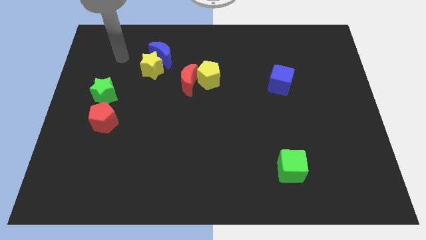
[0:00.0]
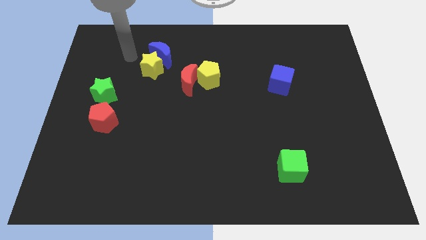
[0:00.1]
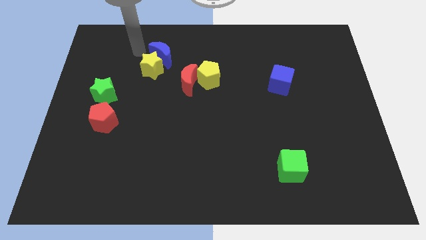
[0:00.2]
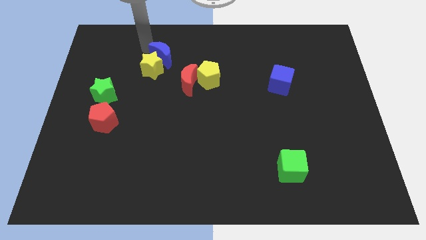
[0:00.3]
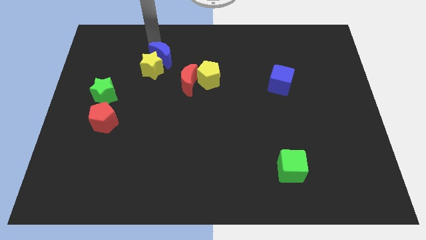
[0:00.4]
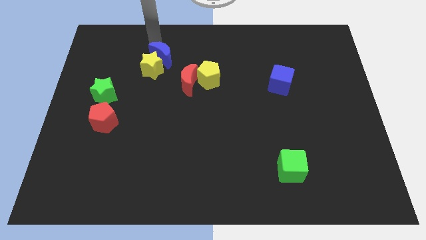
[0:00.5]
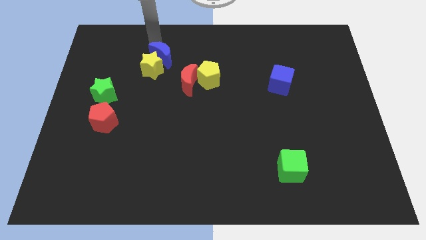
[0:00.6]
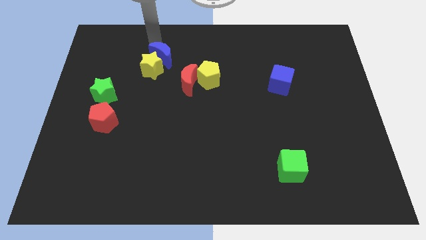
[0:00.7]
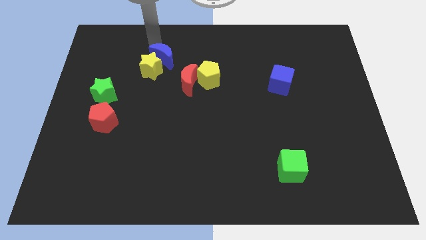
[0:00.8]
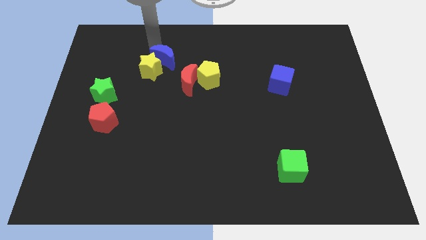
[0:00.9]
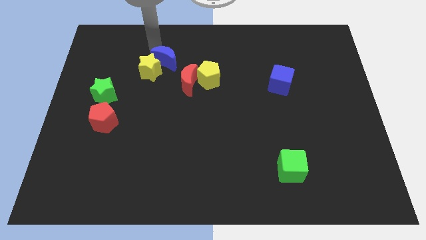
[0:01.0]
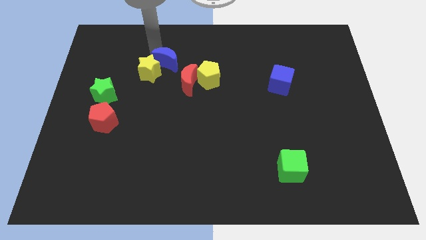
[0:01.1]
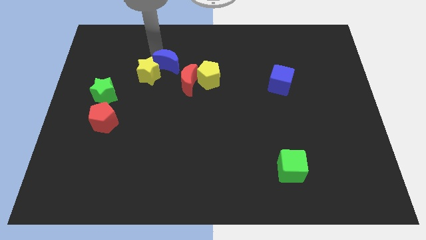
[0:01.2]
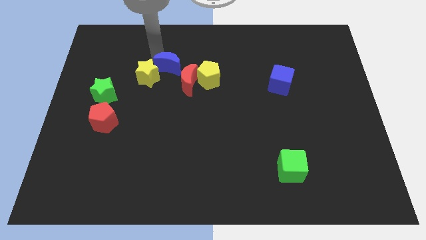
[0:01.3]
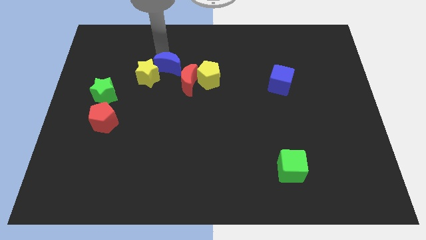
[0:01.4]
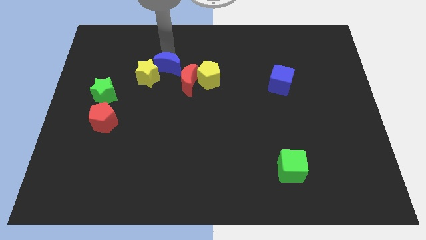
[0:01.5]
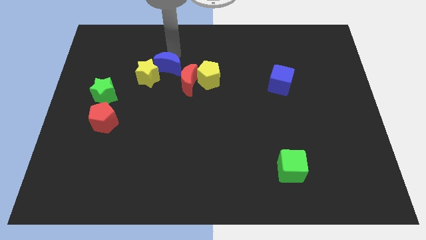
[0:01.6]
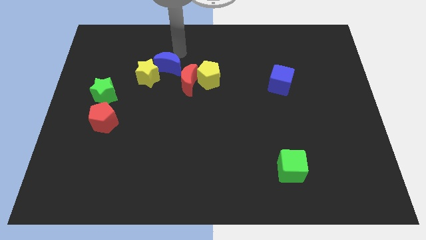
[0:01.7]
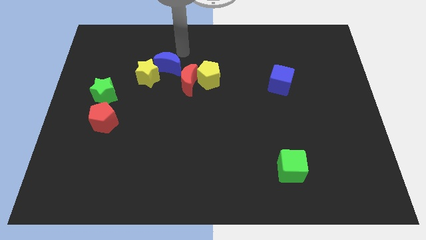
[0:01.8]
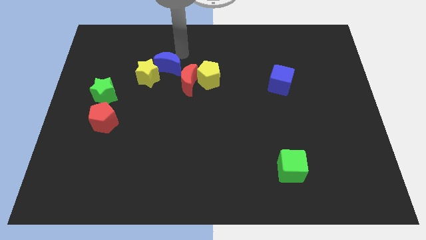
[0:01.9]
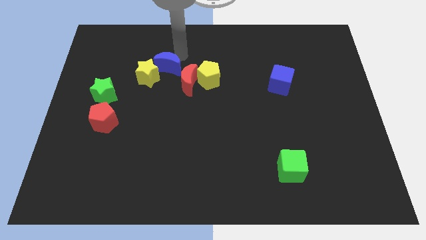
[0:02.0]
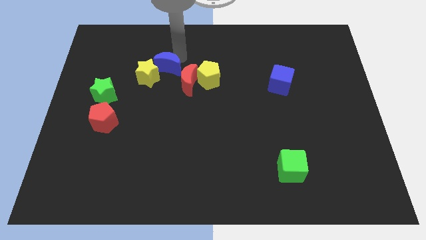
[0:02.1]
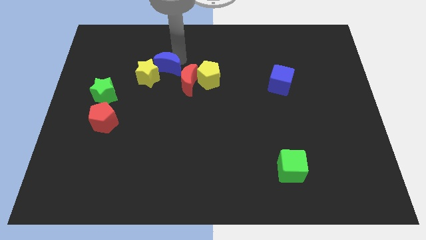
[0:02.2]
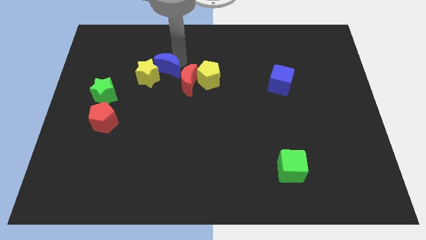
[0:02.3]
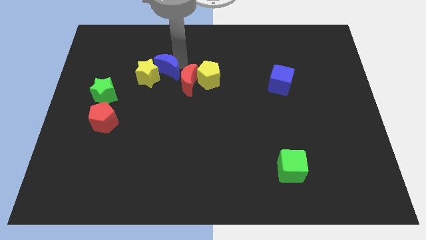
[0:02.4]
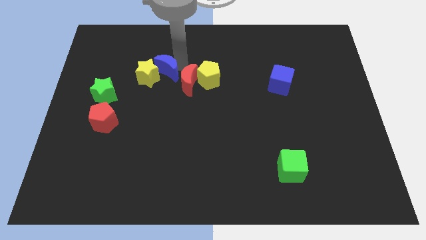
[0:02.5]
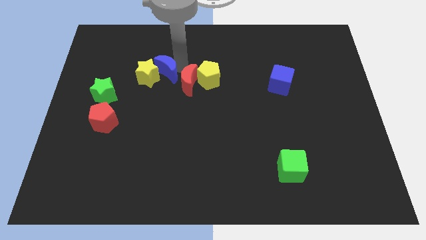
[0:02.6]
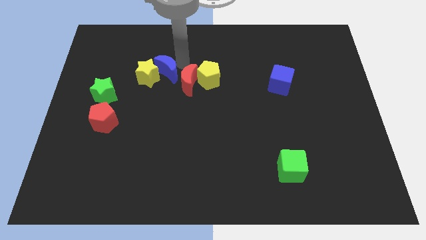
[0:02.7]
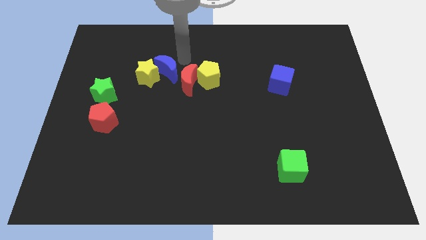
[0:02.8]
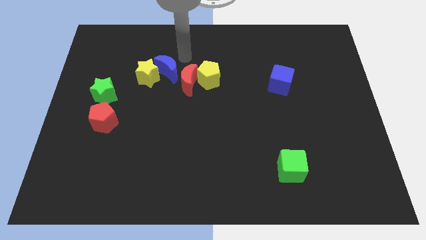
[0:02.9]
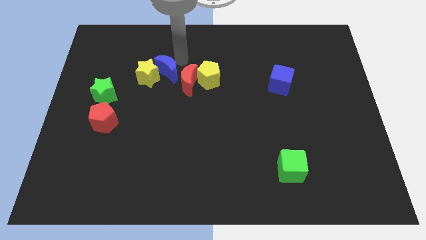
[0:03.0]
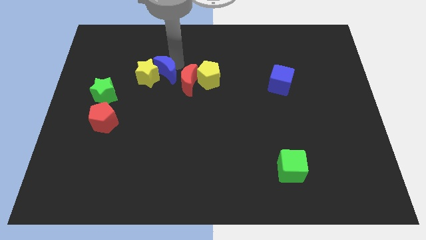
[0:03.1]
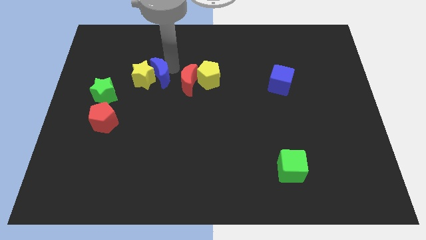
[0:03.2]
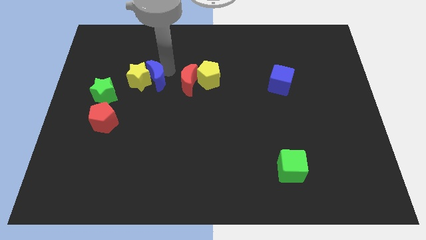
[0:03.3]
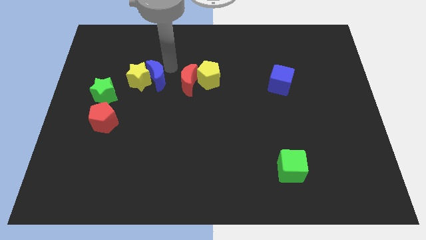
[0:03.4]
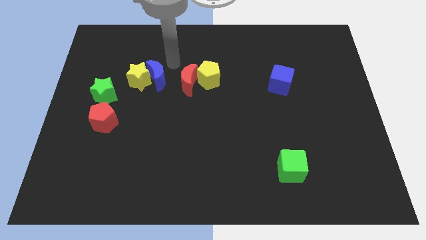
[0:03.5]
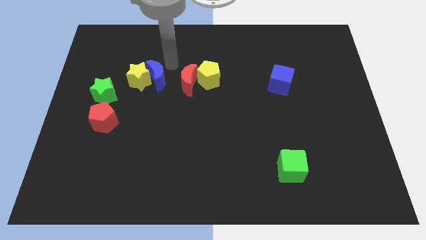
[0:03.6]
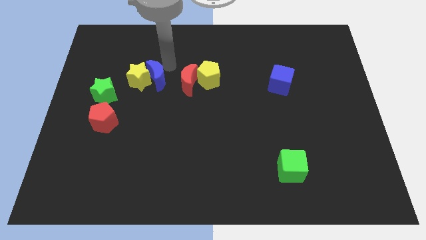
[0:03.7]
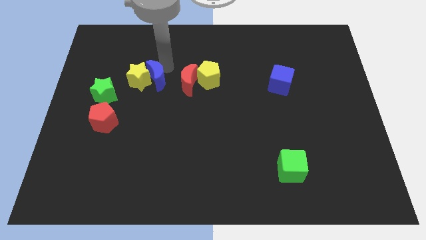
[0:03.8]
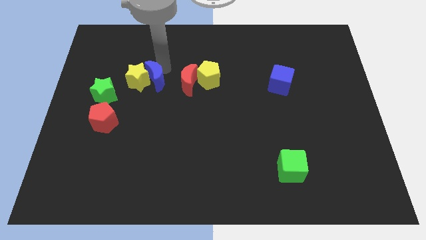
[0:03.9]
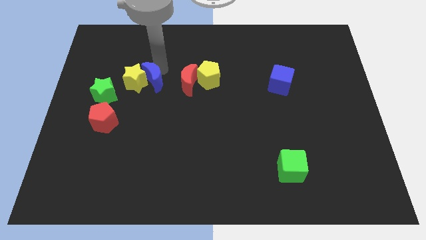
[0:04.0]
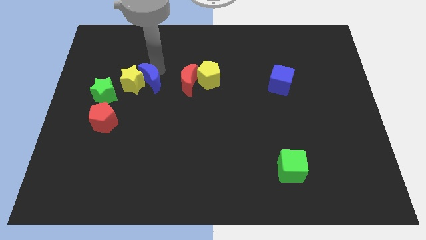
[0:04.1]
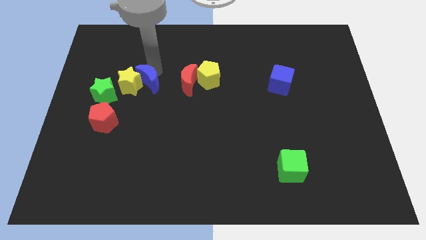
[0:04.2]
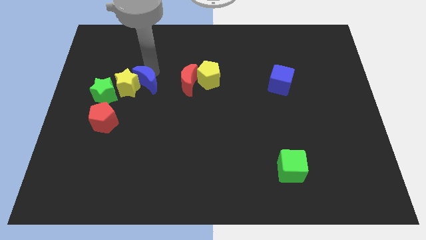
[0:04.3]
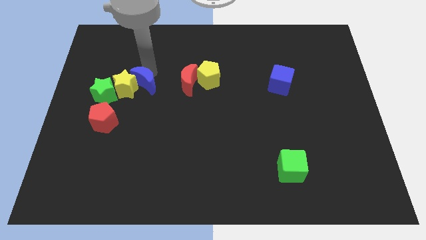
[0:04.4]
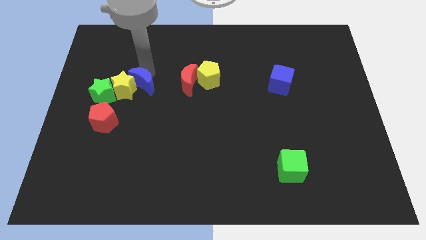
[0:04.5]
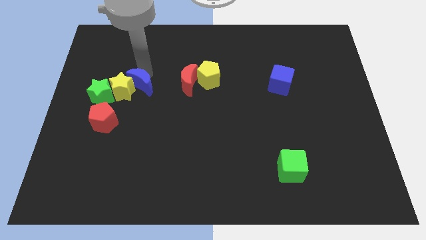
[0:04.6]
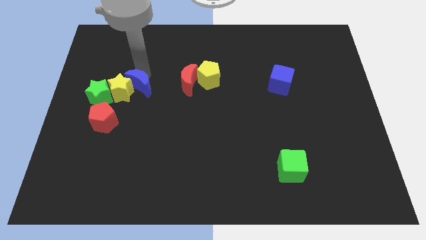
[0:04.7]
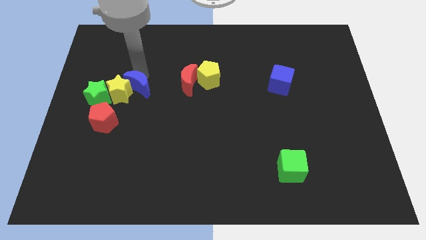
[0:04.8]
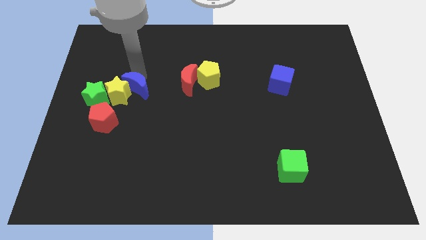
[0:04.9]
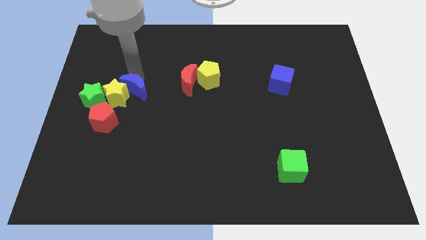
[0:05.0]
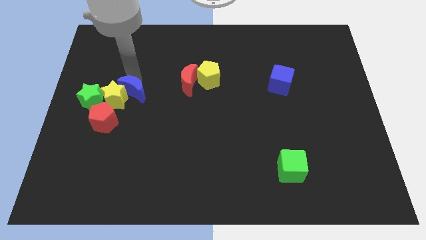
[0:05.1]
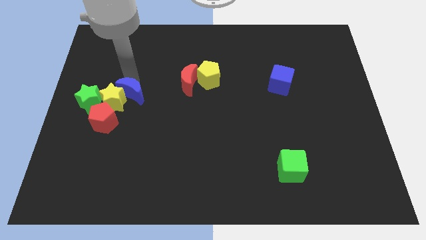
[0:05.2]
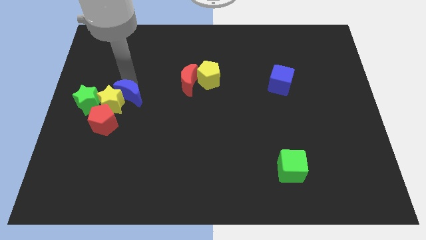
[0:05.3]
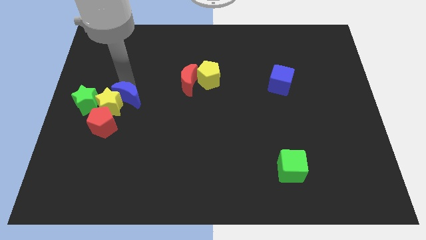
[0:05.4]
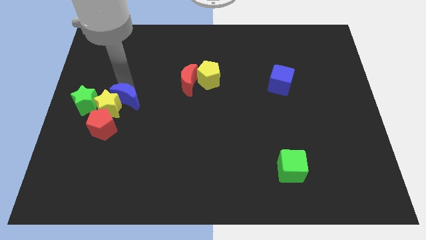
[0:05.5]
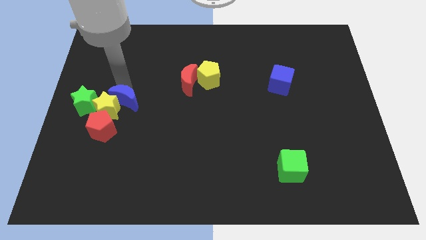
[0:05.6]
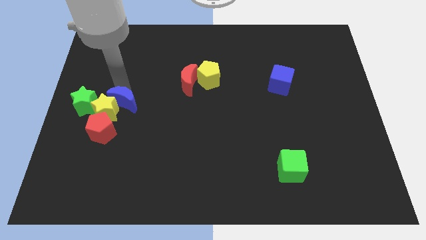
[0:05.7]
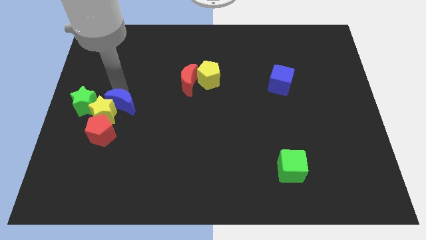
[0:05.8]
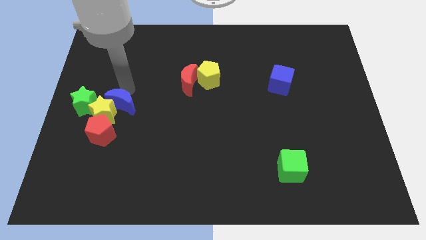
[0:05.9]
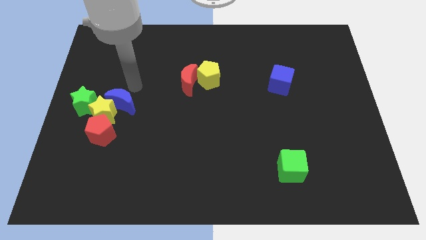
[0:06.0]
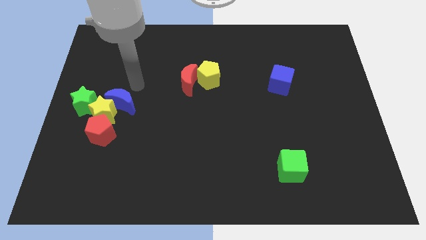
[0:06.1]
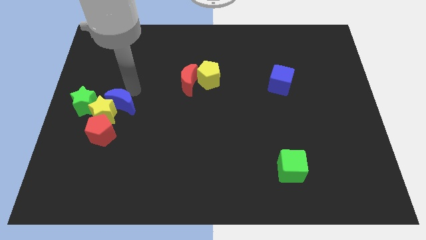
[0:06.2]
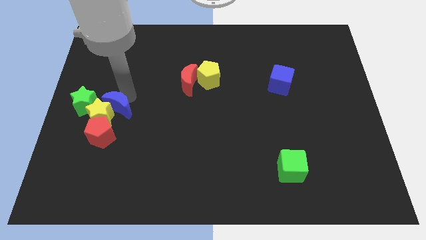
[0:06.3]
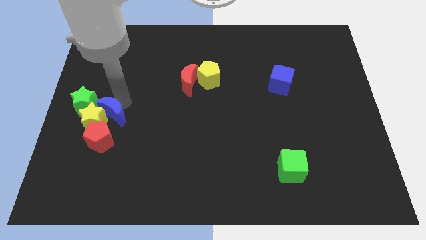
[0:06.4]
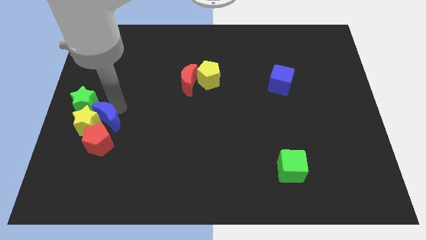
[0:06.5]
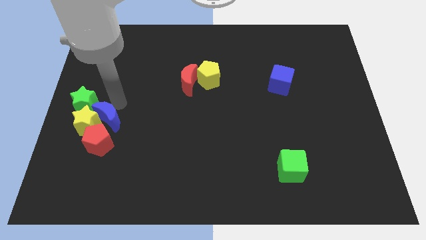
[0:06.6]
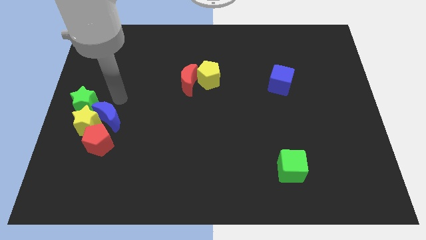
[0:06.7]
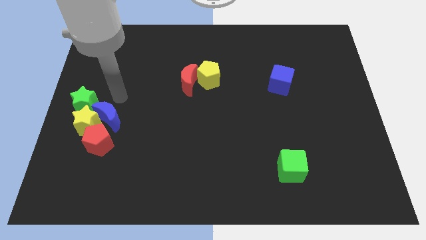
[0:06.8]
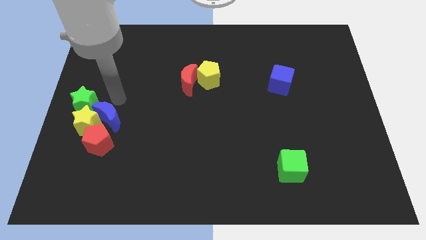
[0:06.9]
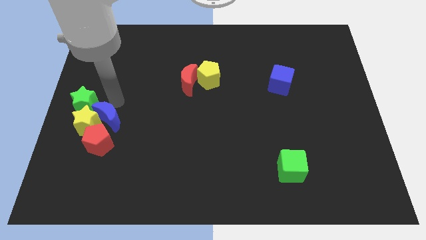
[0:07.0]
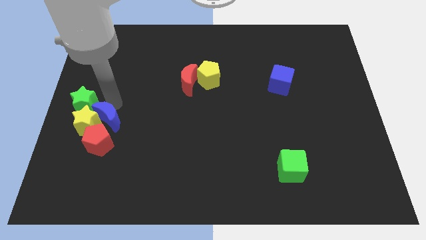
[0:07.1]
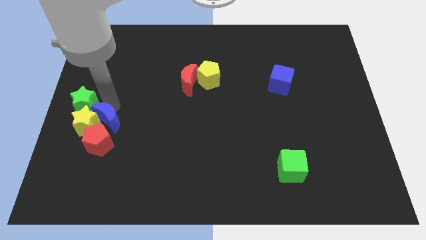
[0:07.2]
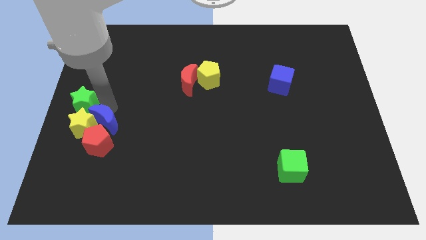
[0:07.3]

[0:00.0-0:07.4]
put the blue moon next to the red pentagon
